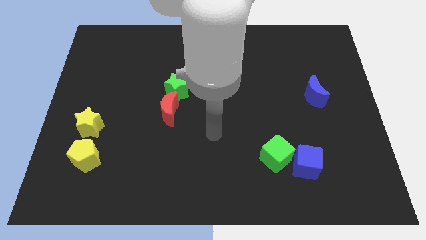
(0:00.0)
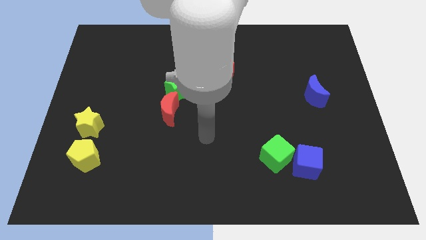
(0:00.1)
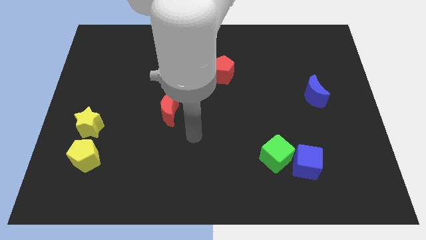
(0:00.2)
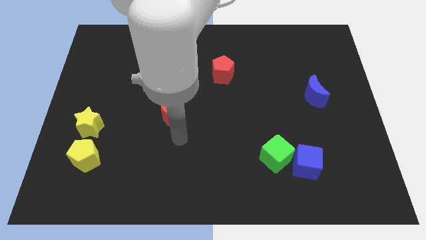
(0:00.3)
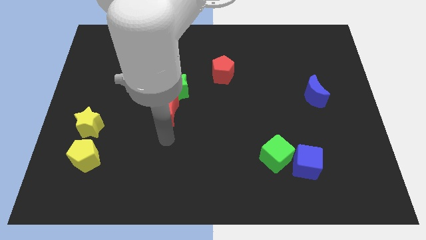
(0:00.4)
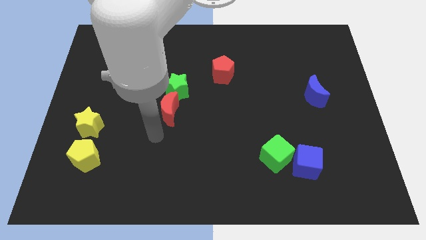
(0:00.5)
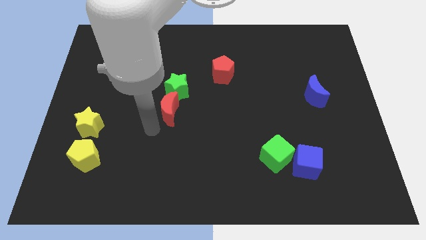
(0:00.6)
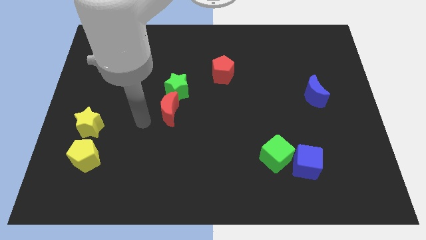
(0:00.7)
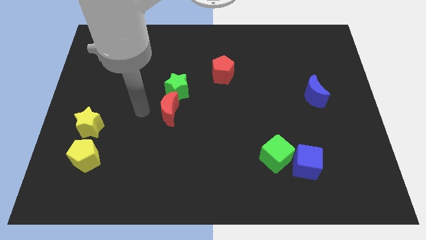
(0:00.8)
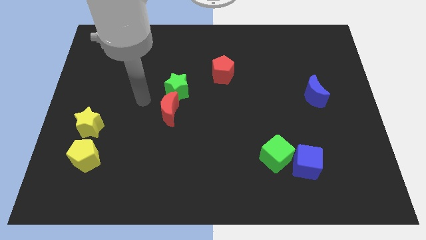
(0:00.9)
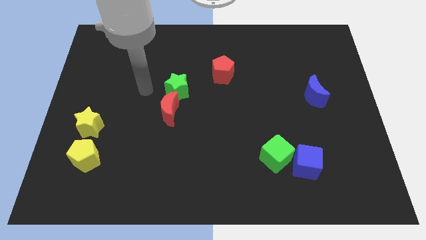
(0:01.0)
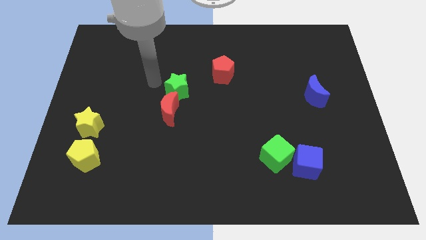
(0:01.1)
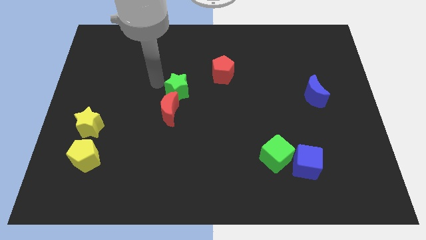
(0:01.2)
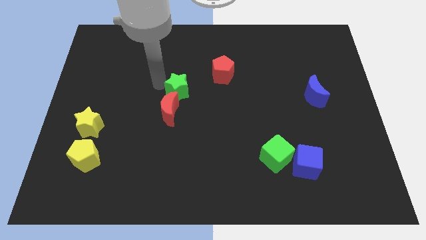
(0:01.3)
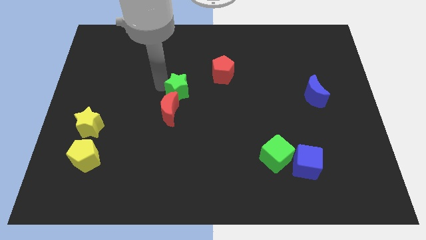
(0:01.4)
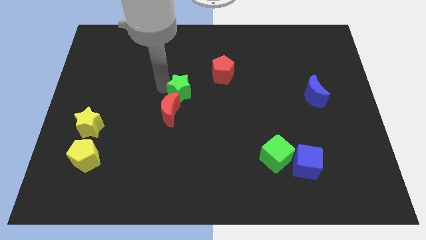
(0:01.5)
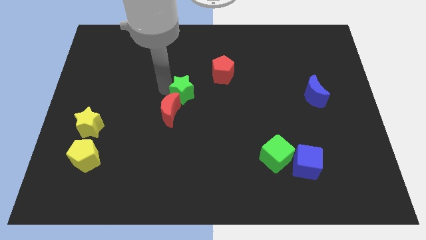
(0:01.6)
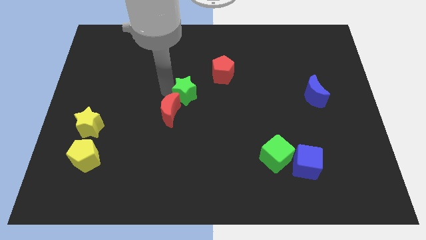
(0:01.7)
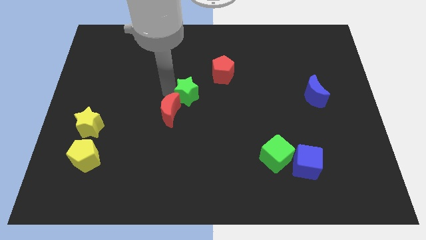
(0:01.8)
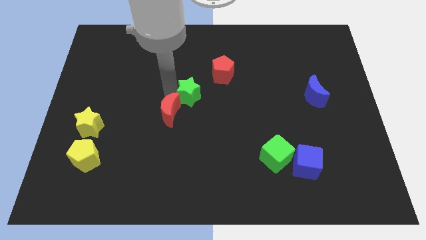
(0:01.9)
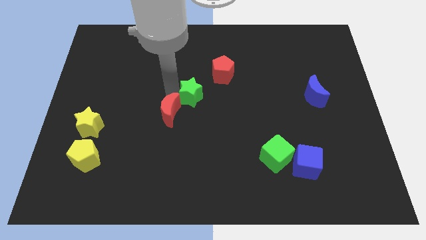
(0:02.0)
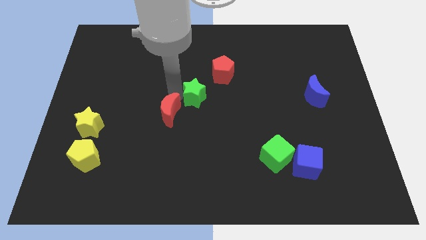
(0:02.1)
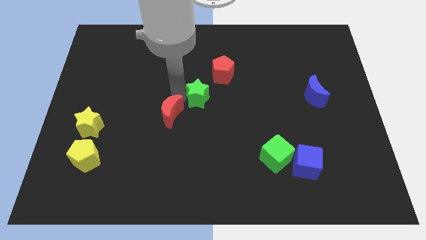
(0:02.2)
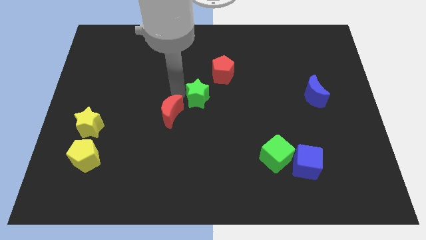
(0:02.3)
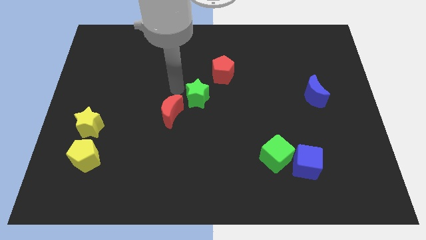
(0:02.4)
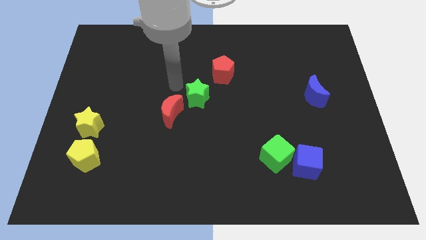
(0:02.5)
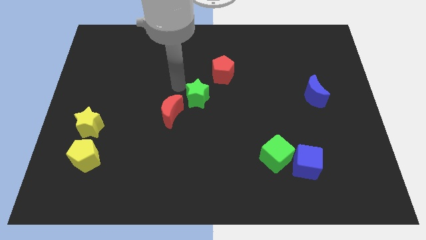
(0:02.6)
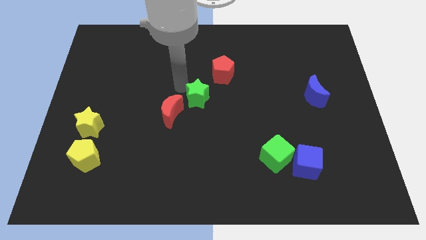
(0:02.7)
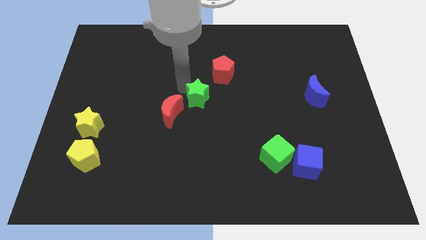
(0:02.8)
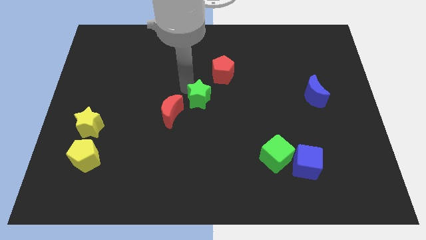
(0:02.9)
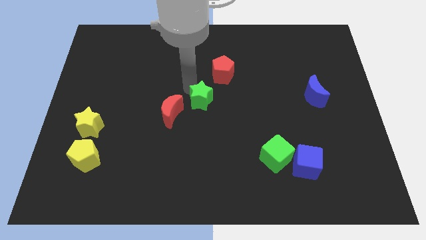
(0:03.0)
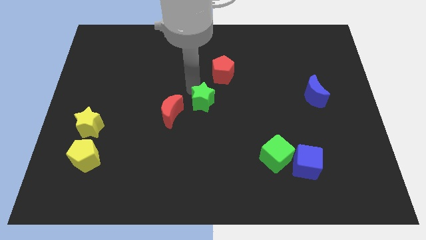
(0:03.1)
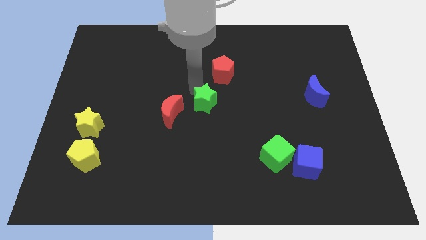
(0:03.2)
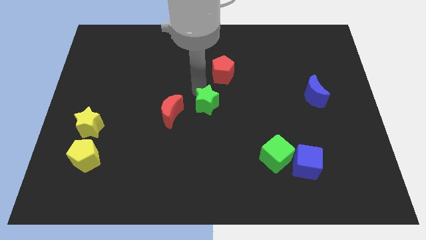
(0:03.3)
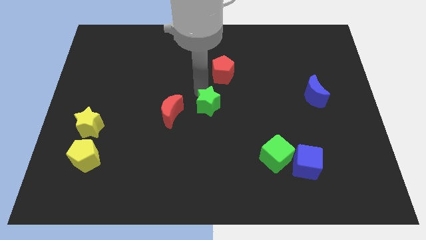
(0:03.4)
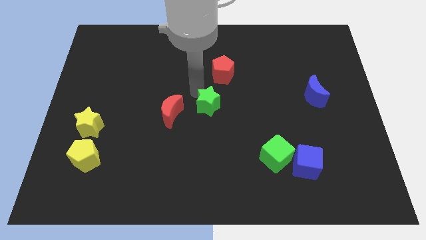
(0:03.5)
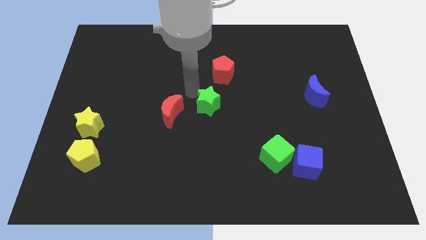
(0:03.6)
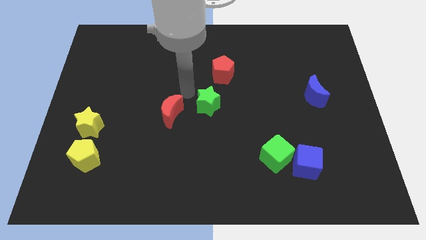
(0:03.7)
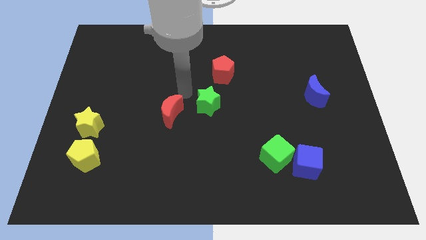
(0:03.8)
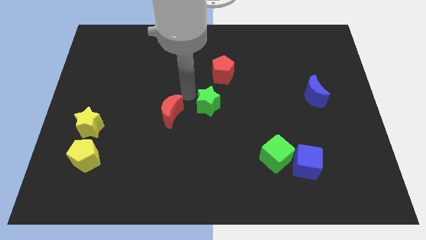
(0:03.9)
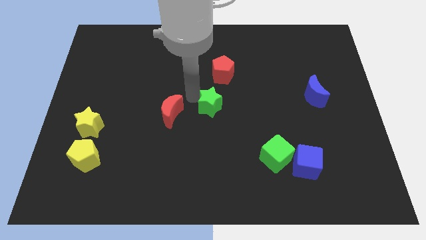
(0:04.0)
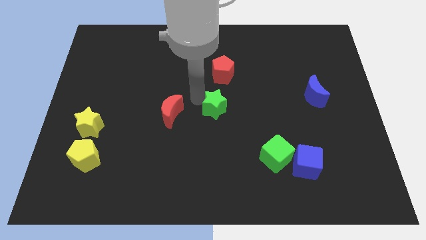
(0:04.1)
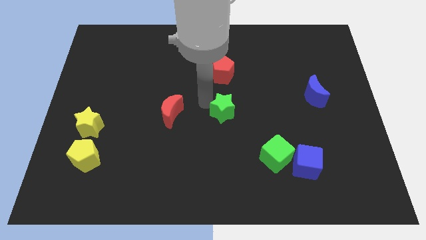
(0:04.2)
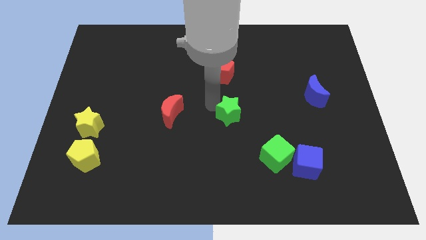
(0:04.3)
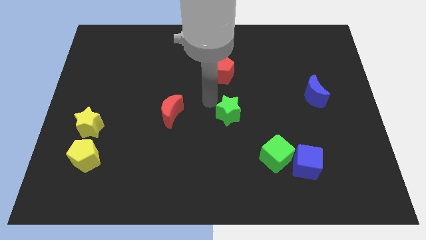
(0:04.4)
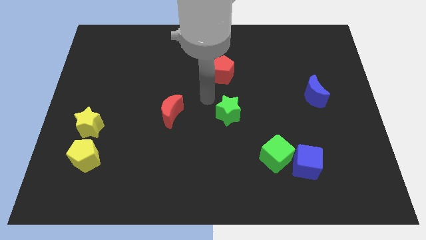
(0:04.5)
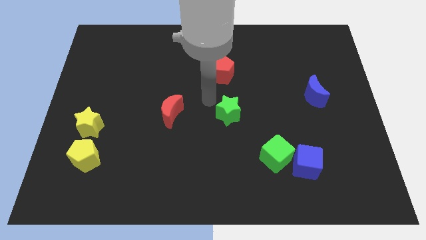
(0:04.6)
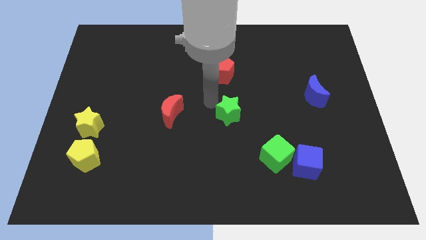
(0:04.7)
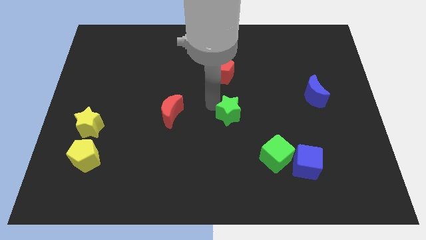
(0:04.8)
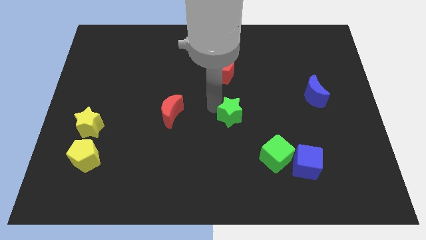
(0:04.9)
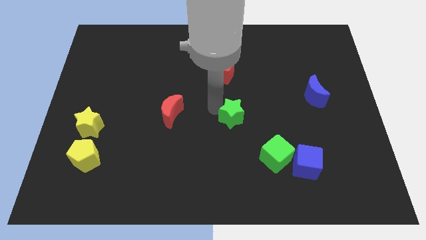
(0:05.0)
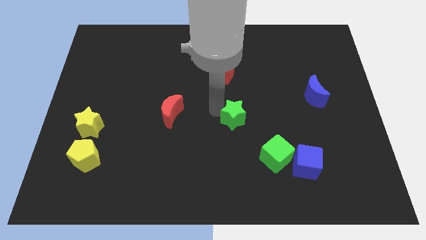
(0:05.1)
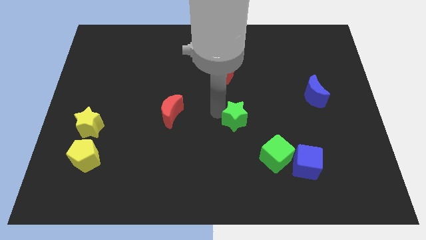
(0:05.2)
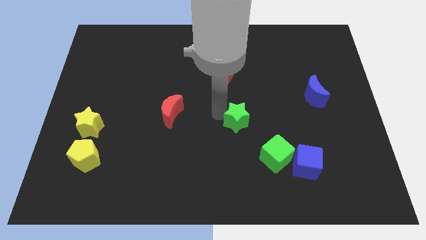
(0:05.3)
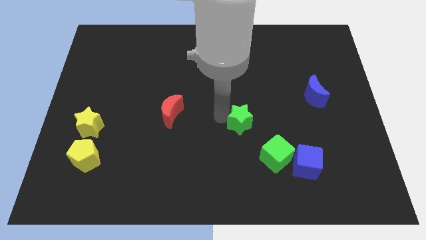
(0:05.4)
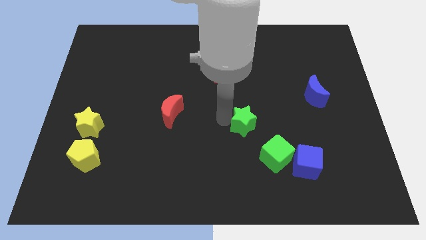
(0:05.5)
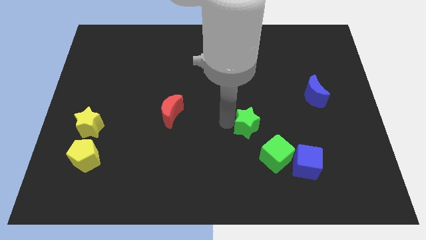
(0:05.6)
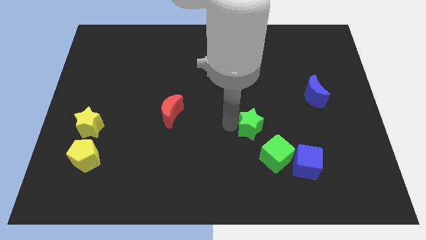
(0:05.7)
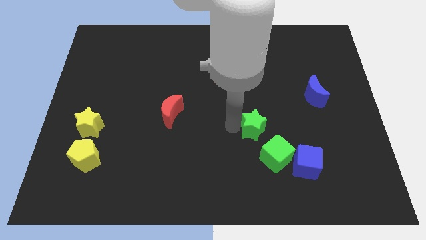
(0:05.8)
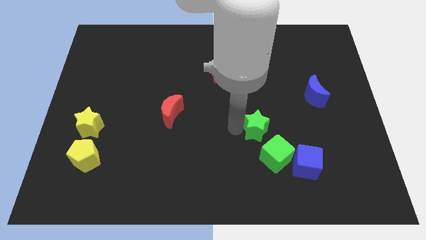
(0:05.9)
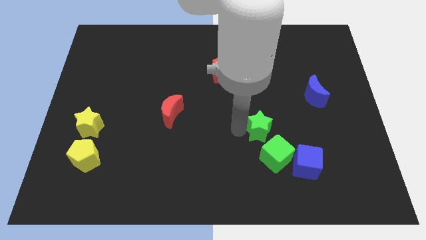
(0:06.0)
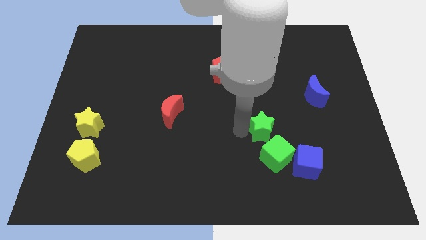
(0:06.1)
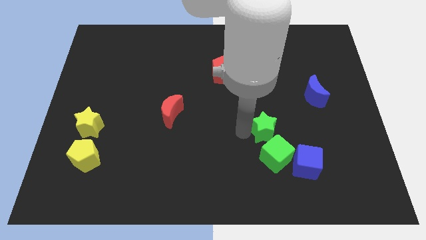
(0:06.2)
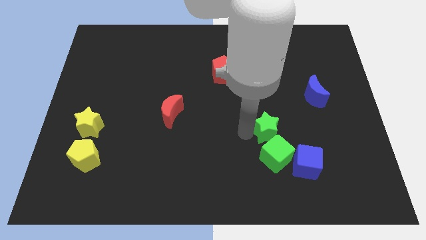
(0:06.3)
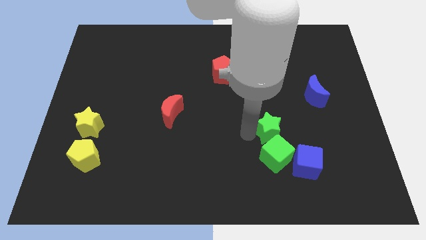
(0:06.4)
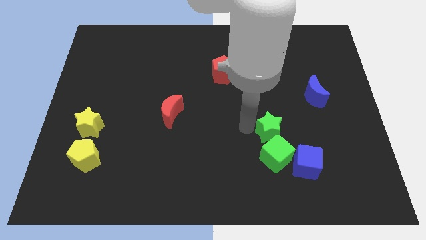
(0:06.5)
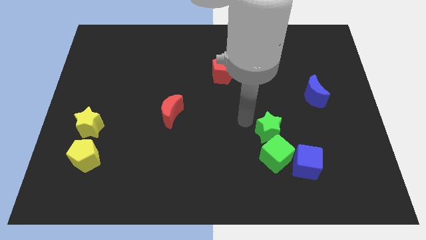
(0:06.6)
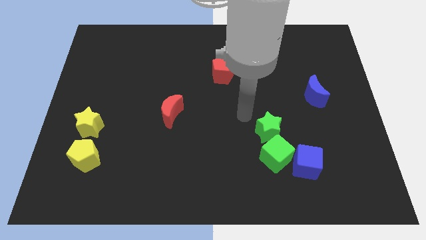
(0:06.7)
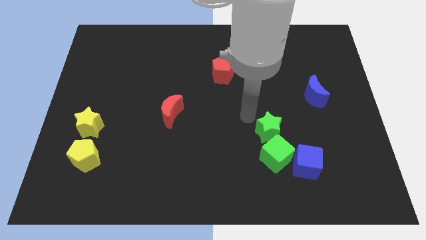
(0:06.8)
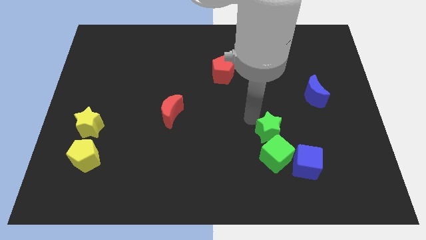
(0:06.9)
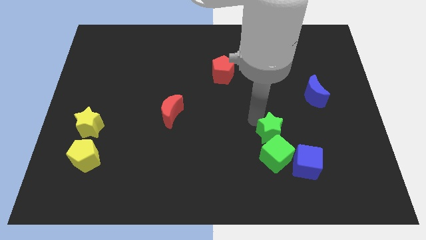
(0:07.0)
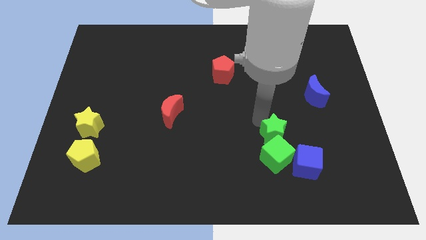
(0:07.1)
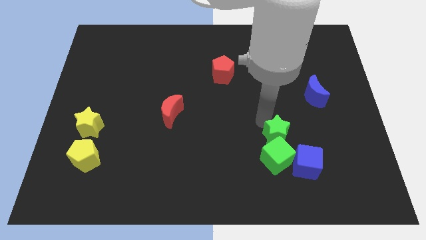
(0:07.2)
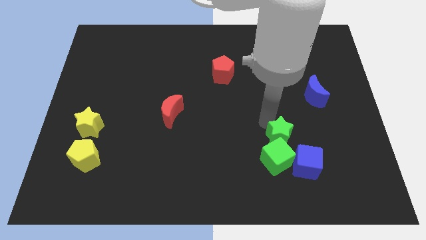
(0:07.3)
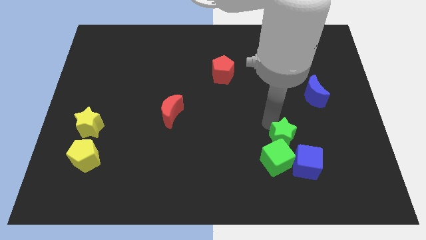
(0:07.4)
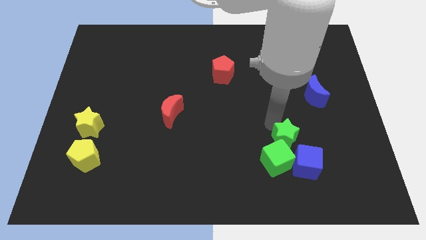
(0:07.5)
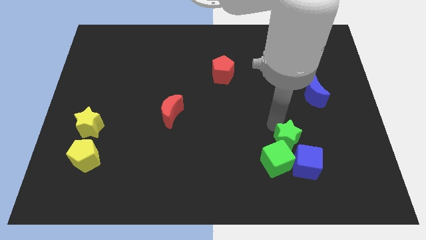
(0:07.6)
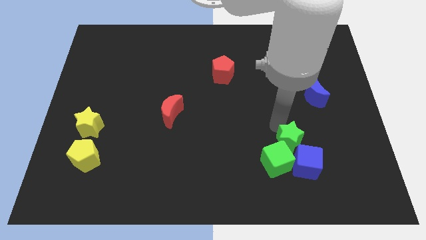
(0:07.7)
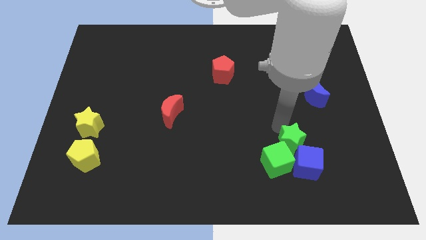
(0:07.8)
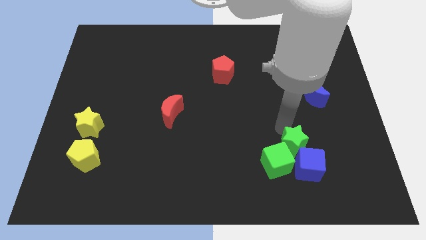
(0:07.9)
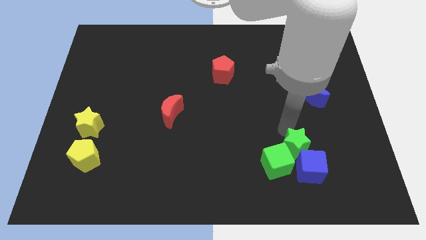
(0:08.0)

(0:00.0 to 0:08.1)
slide the green star next to the blue cube

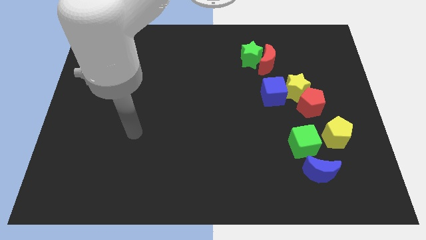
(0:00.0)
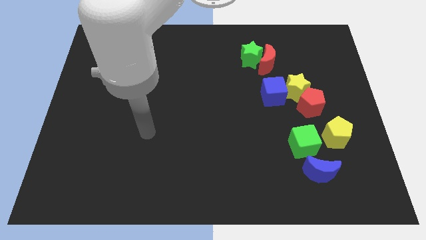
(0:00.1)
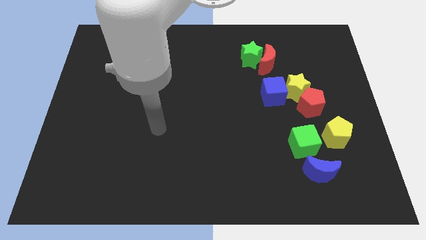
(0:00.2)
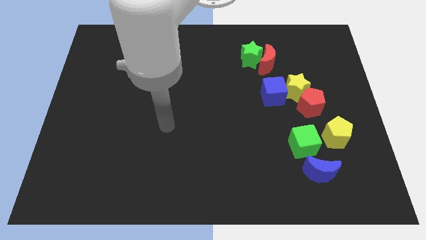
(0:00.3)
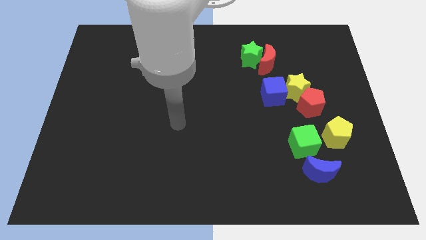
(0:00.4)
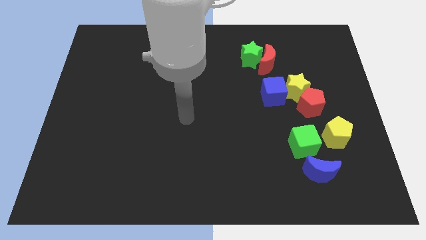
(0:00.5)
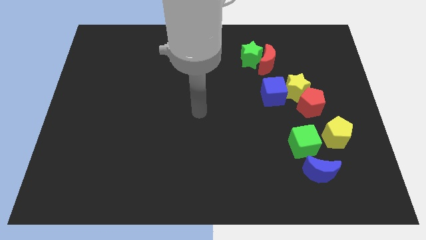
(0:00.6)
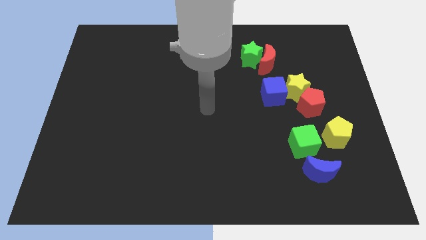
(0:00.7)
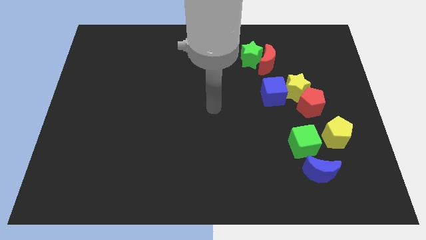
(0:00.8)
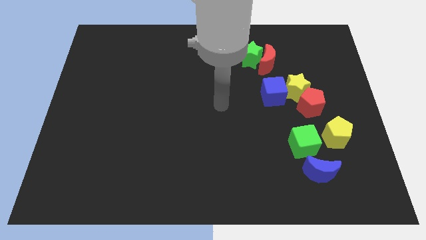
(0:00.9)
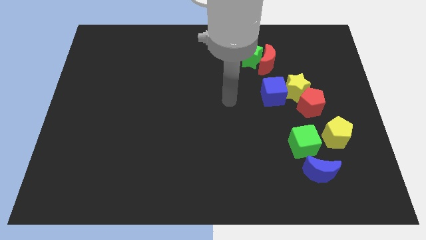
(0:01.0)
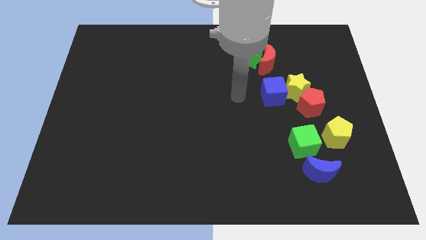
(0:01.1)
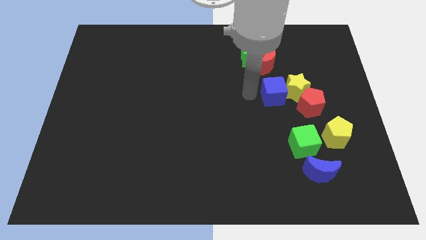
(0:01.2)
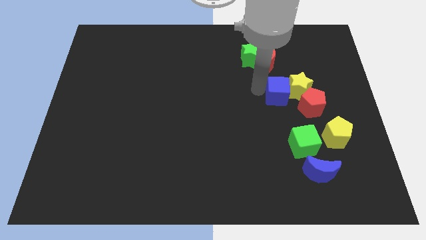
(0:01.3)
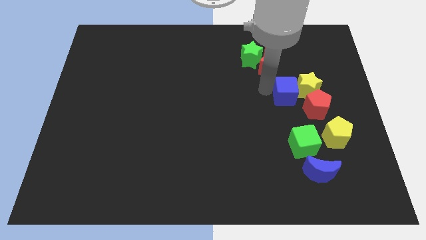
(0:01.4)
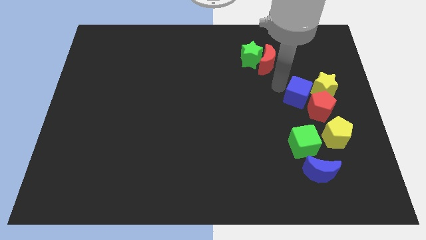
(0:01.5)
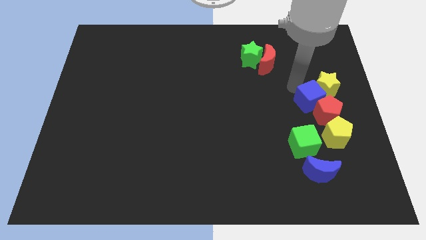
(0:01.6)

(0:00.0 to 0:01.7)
push the red pentagon close to the yellow pentagon
